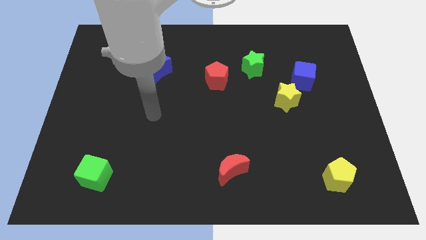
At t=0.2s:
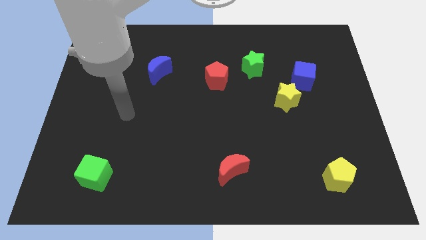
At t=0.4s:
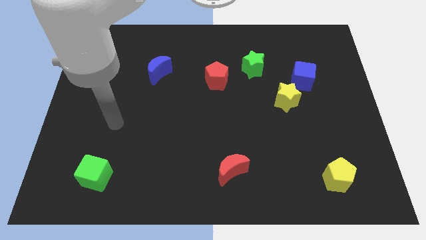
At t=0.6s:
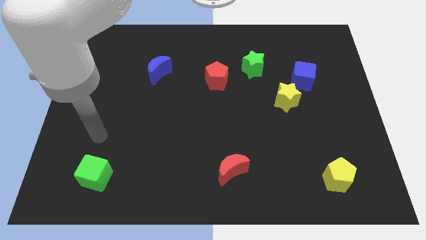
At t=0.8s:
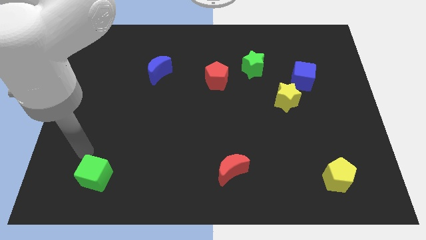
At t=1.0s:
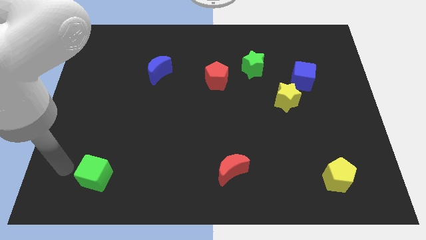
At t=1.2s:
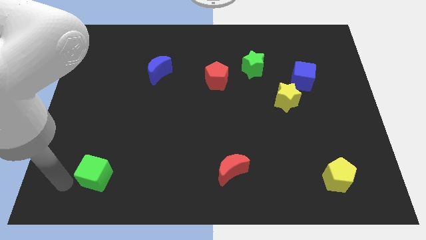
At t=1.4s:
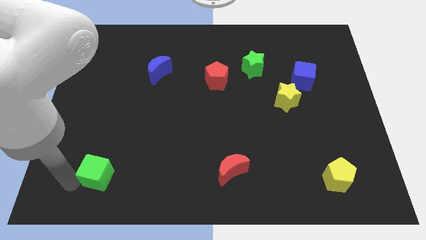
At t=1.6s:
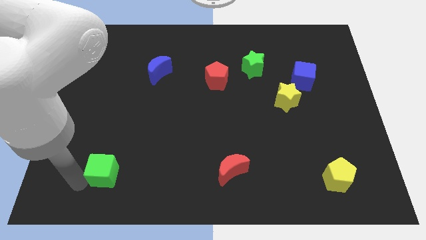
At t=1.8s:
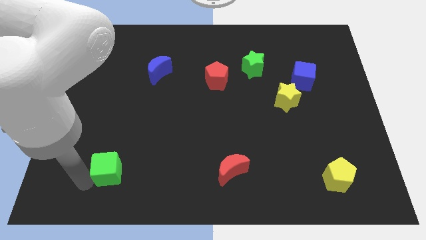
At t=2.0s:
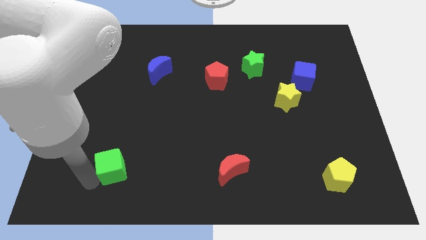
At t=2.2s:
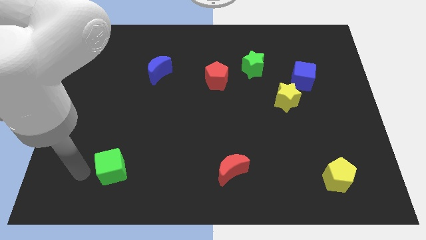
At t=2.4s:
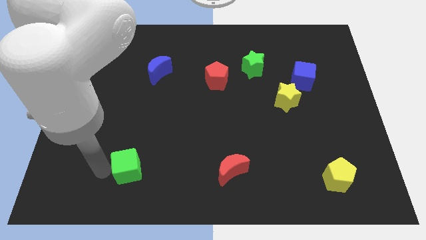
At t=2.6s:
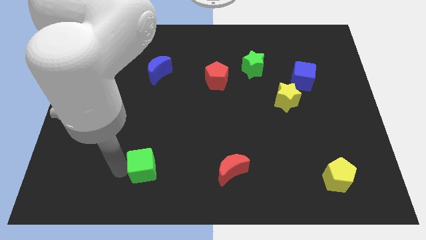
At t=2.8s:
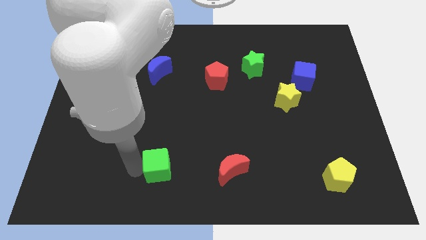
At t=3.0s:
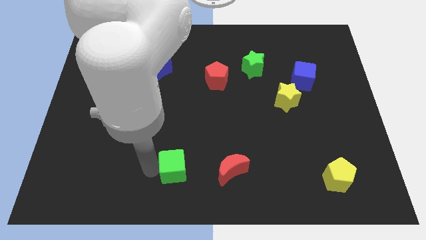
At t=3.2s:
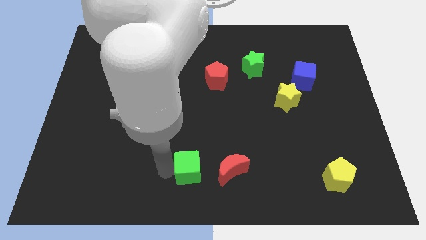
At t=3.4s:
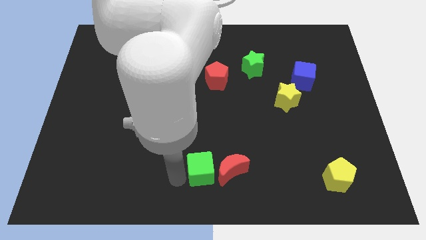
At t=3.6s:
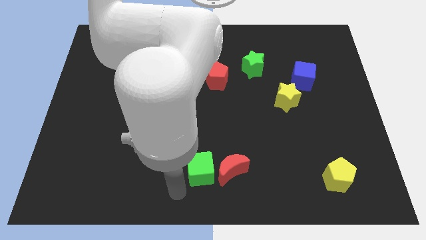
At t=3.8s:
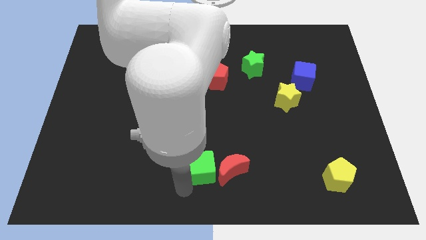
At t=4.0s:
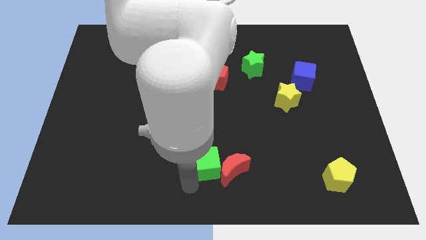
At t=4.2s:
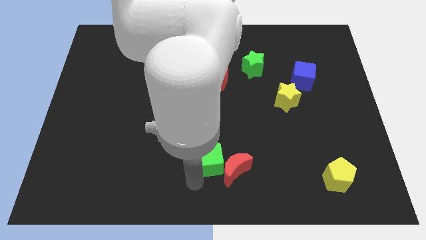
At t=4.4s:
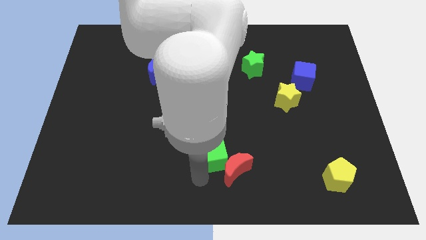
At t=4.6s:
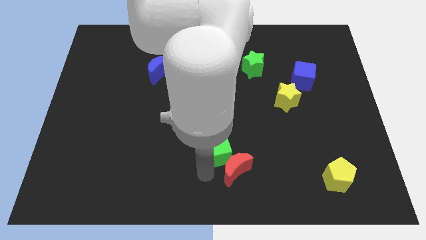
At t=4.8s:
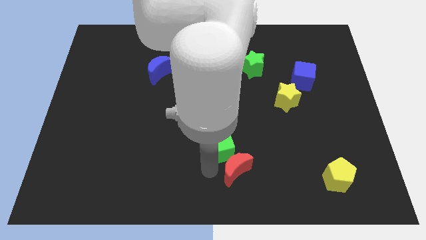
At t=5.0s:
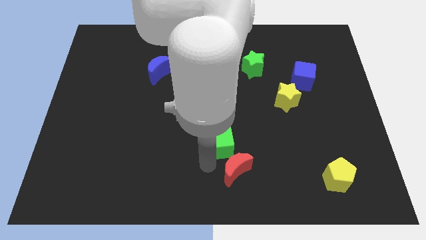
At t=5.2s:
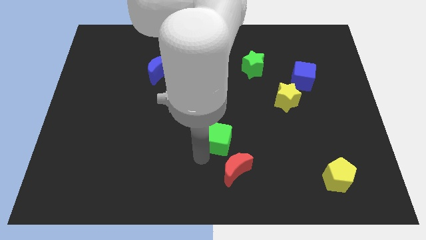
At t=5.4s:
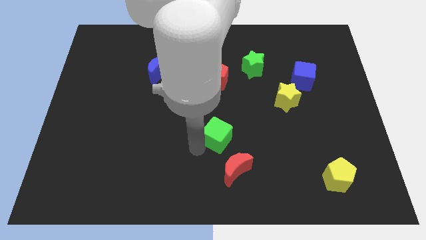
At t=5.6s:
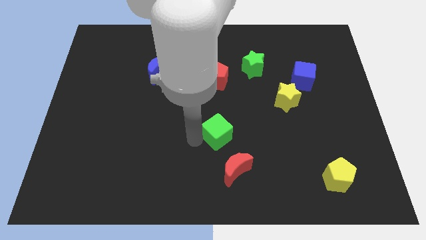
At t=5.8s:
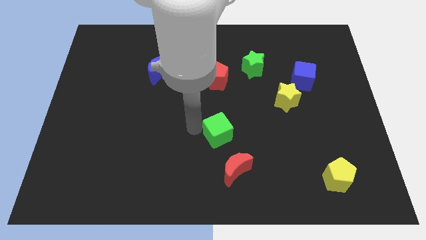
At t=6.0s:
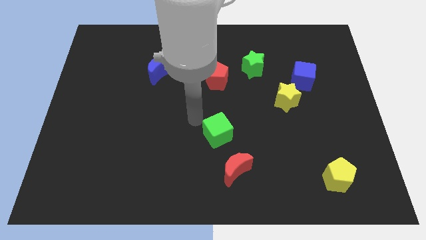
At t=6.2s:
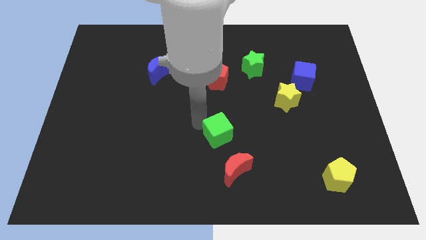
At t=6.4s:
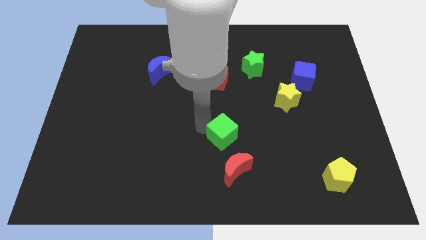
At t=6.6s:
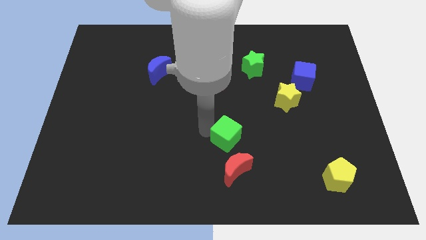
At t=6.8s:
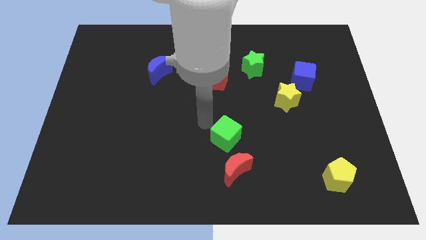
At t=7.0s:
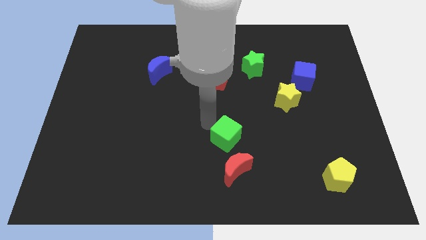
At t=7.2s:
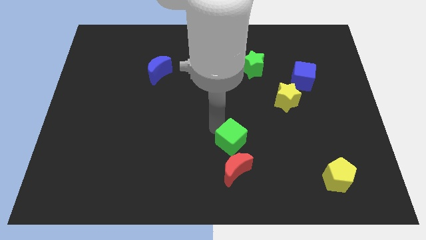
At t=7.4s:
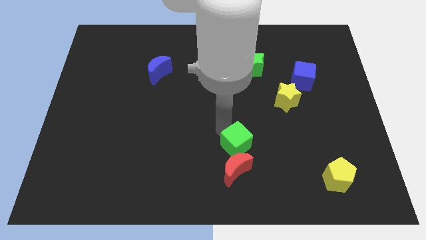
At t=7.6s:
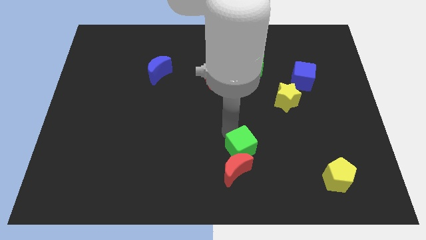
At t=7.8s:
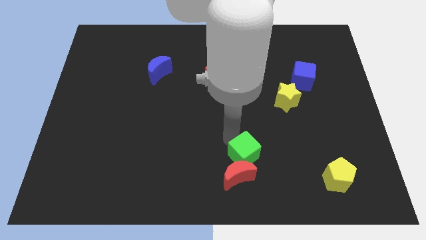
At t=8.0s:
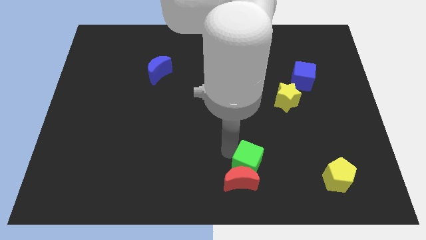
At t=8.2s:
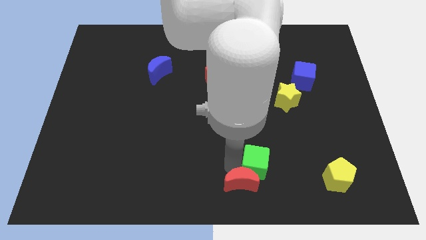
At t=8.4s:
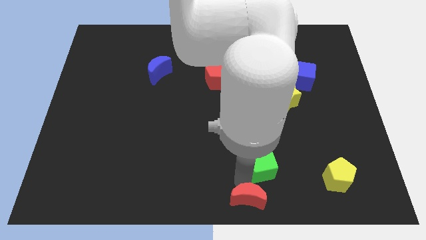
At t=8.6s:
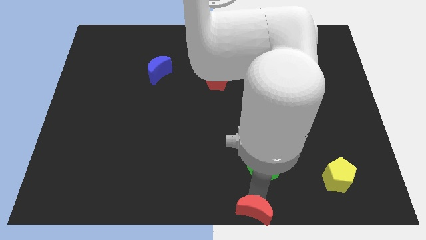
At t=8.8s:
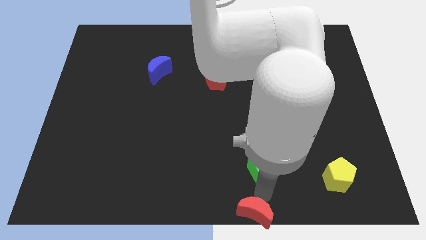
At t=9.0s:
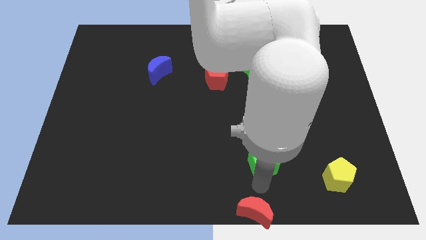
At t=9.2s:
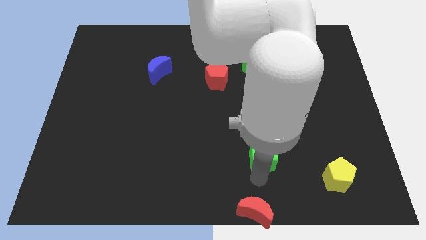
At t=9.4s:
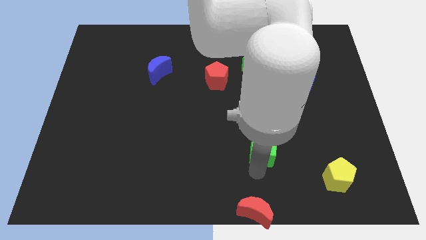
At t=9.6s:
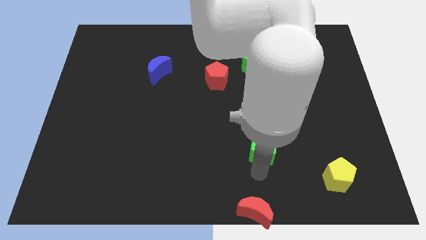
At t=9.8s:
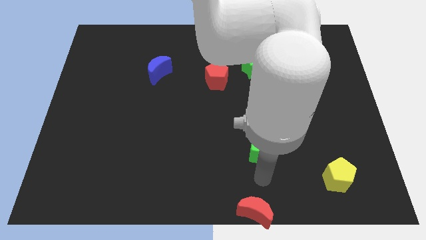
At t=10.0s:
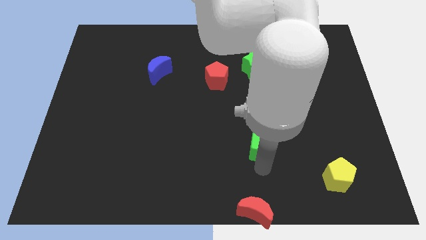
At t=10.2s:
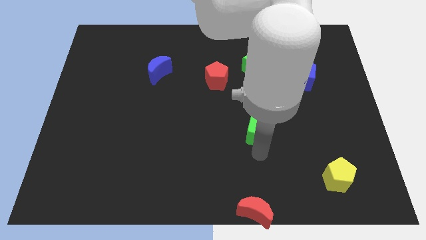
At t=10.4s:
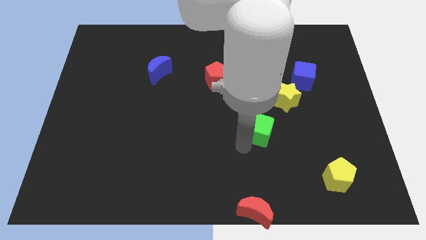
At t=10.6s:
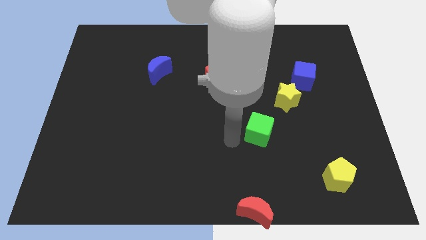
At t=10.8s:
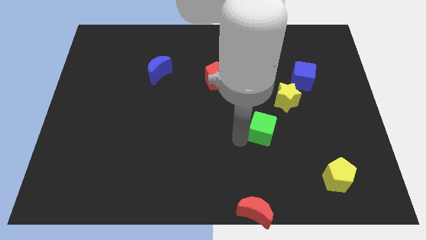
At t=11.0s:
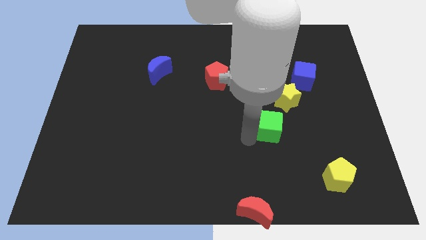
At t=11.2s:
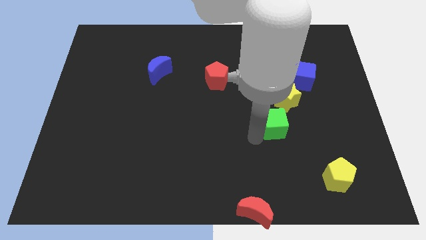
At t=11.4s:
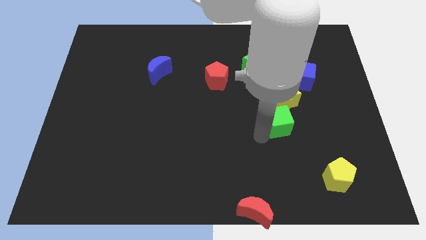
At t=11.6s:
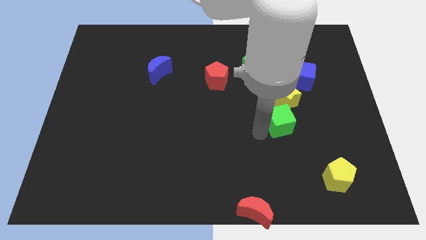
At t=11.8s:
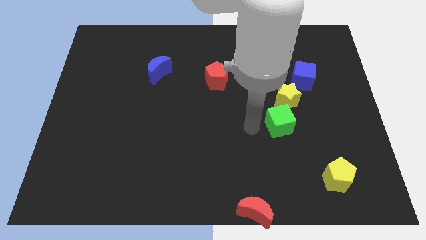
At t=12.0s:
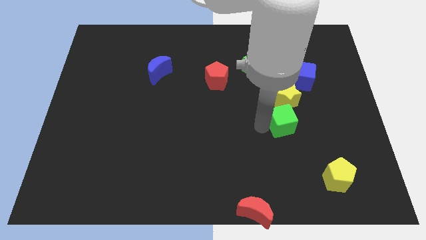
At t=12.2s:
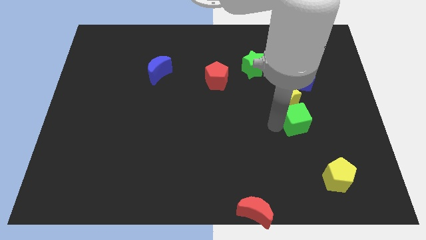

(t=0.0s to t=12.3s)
move the green cube to the bottom right side of the yellow star

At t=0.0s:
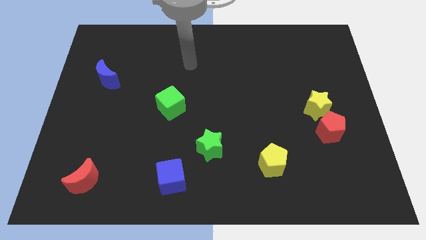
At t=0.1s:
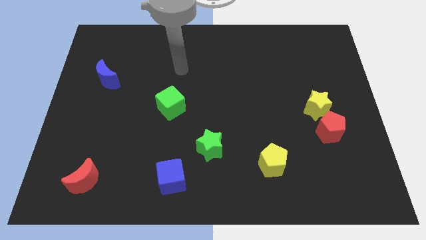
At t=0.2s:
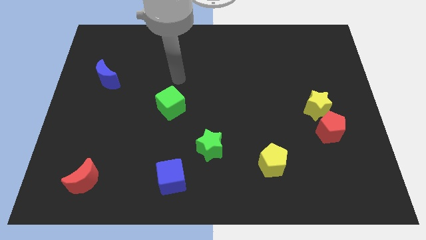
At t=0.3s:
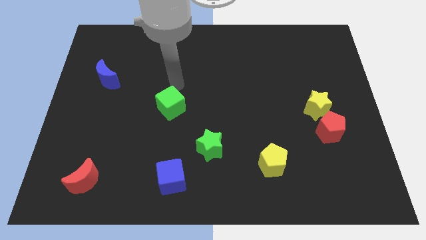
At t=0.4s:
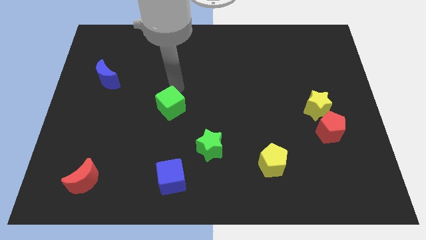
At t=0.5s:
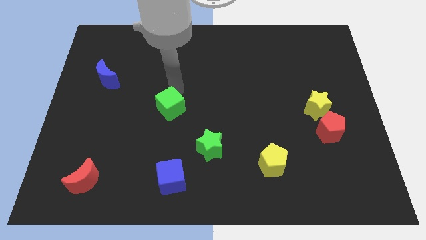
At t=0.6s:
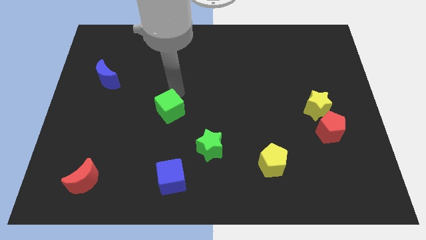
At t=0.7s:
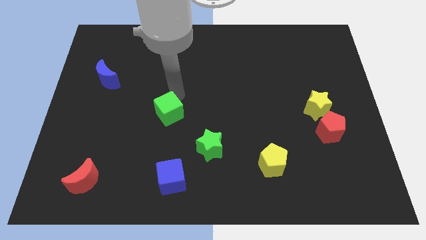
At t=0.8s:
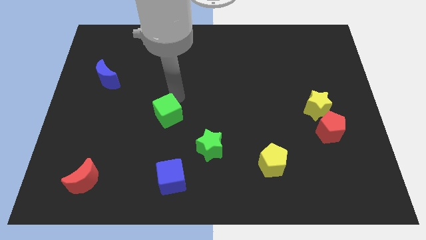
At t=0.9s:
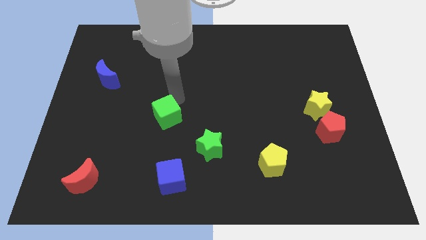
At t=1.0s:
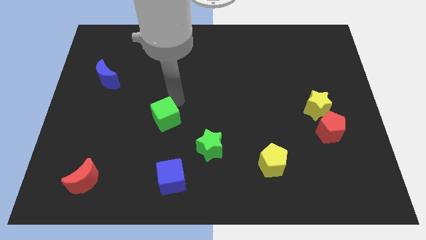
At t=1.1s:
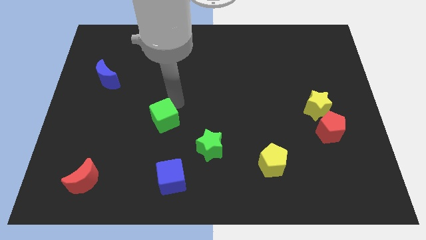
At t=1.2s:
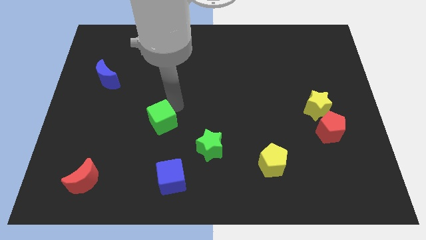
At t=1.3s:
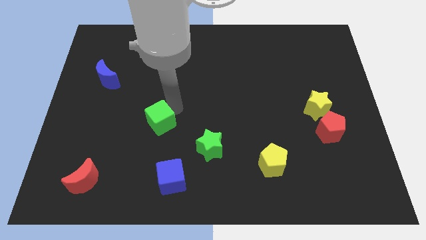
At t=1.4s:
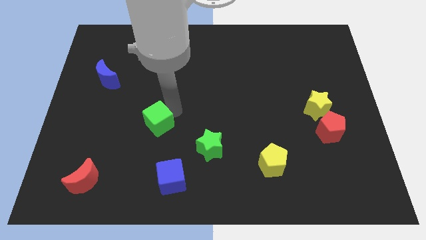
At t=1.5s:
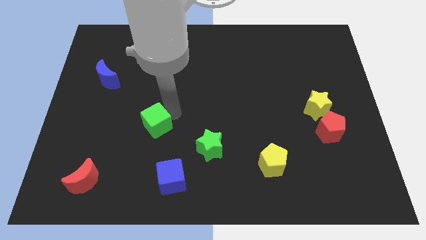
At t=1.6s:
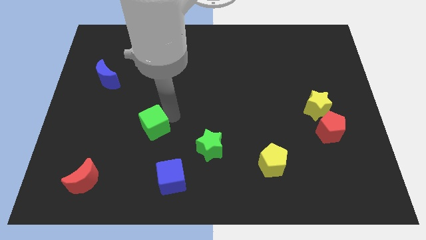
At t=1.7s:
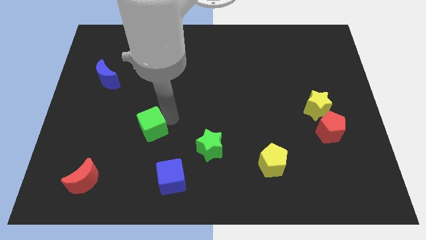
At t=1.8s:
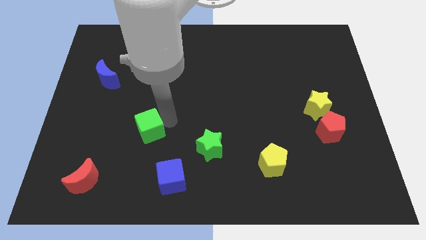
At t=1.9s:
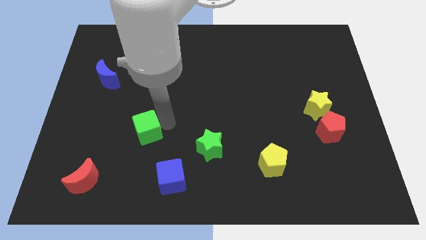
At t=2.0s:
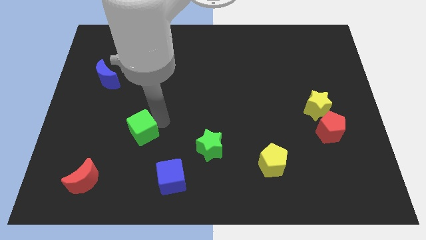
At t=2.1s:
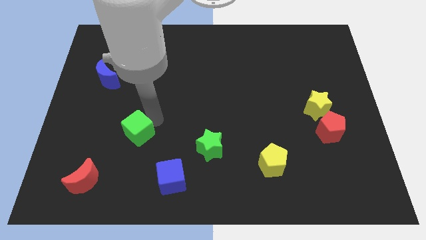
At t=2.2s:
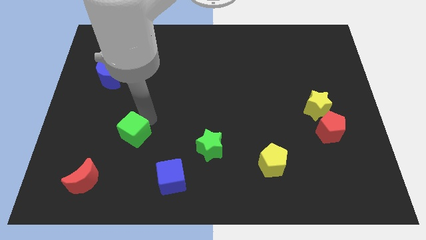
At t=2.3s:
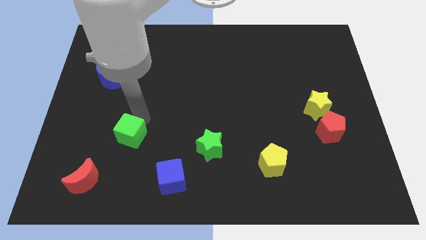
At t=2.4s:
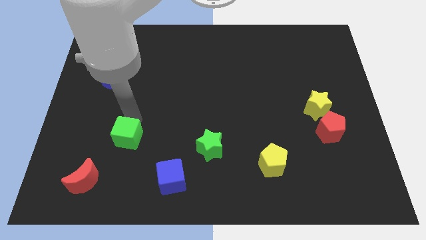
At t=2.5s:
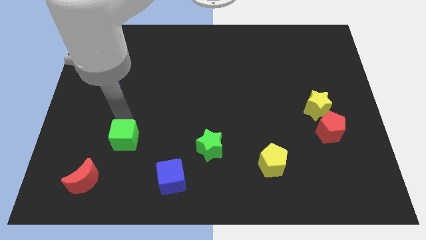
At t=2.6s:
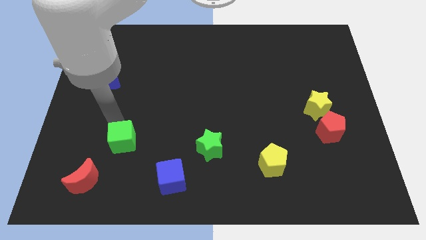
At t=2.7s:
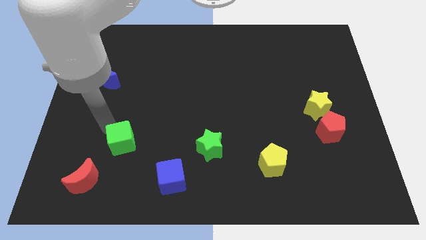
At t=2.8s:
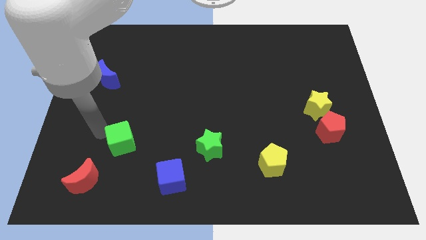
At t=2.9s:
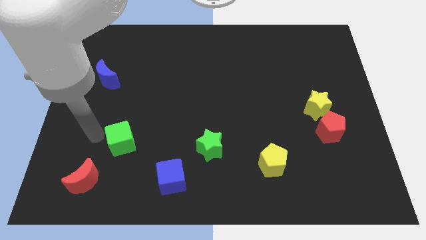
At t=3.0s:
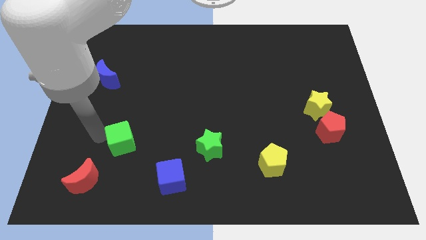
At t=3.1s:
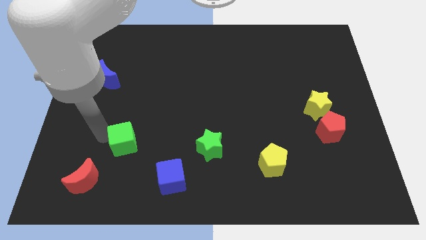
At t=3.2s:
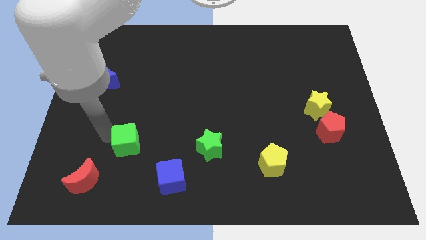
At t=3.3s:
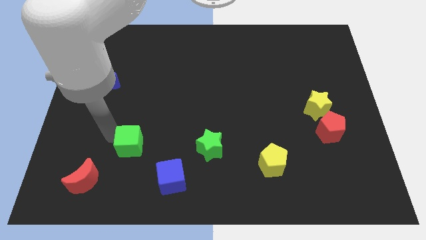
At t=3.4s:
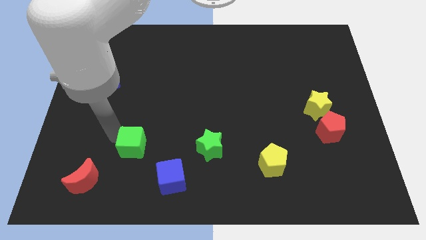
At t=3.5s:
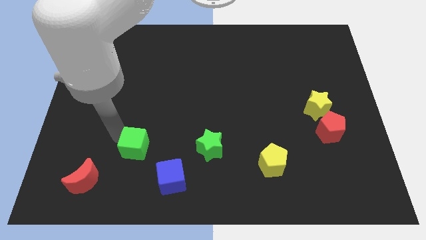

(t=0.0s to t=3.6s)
move the green cube to the left of the green star
